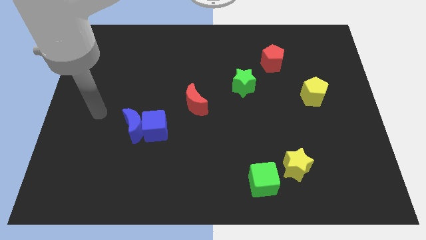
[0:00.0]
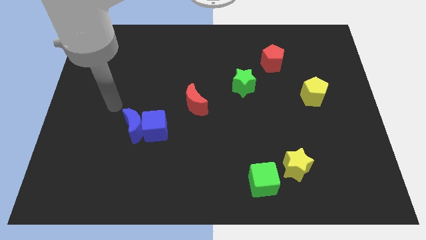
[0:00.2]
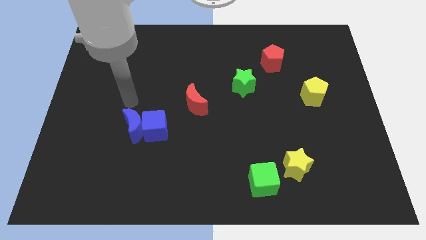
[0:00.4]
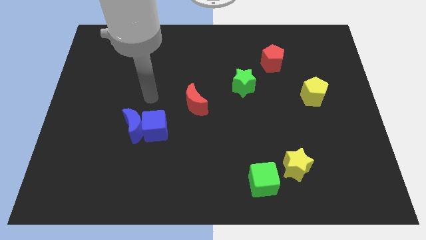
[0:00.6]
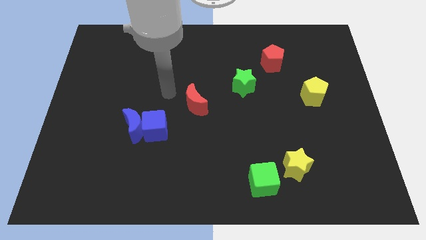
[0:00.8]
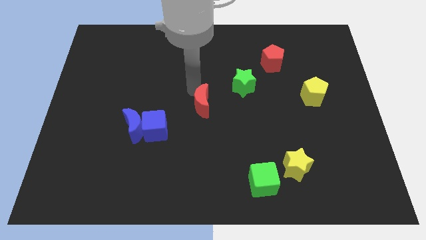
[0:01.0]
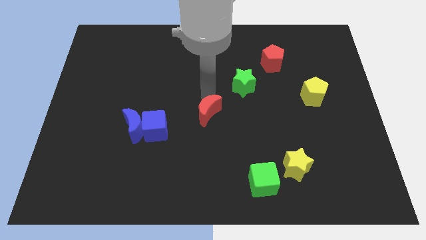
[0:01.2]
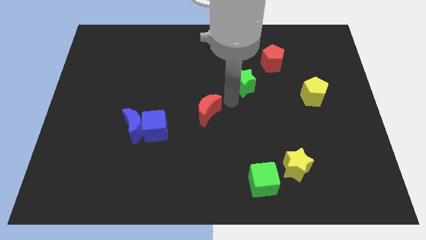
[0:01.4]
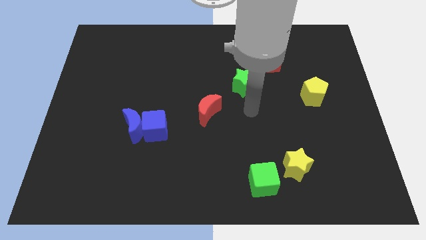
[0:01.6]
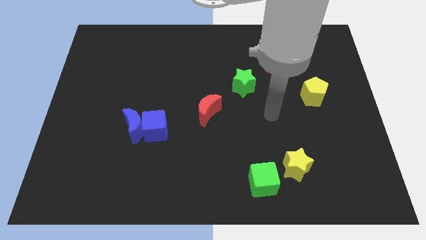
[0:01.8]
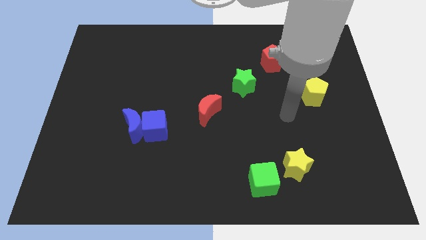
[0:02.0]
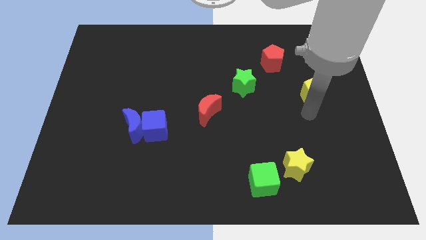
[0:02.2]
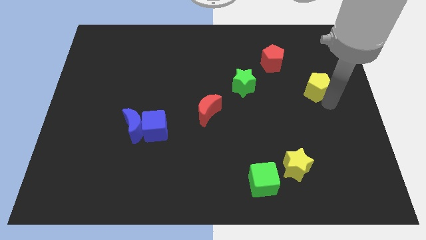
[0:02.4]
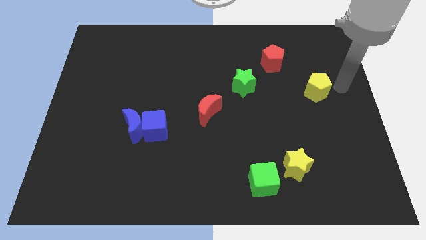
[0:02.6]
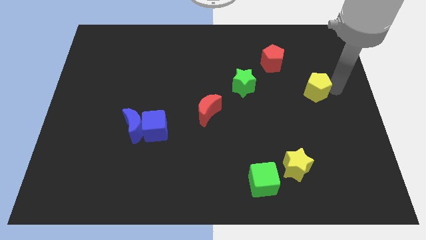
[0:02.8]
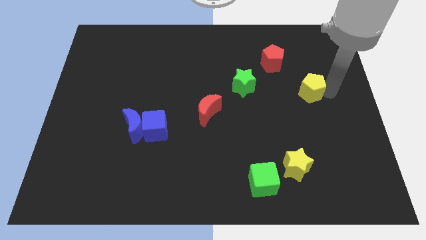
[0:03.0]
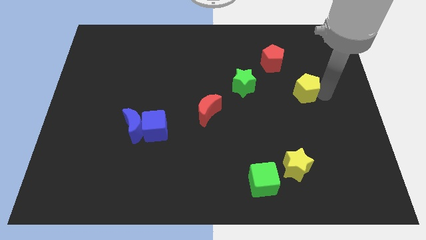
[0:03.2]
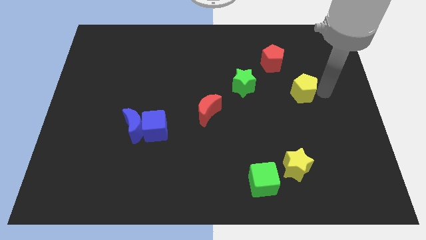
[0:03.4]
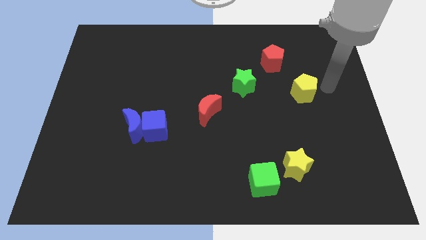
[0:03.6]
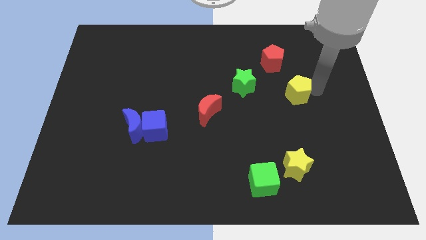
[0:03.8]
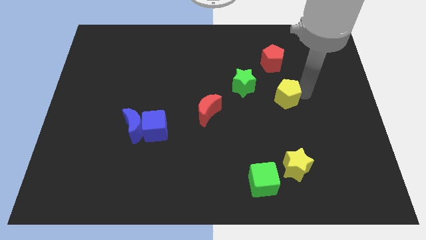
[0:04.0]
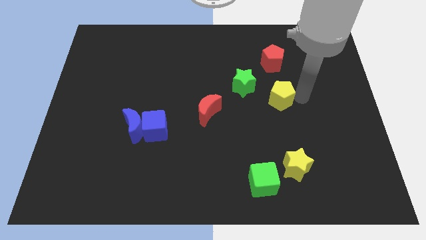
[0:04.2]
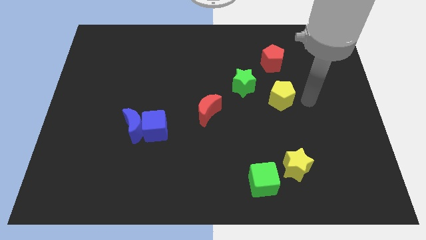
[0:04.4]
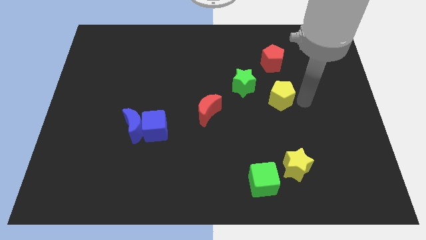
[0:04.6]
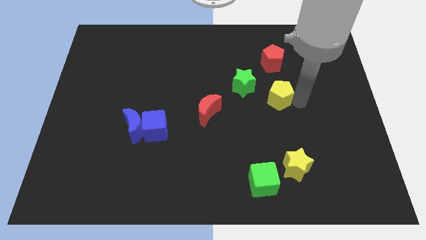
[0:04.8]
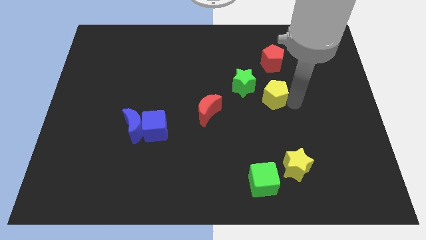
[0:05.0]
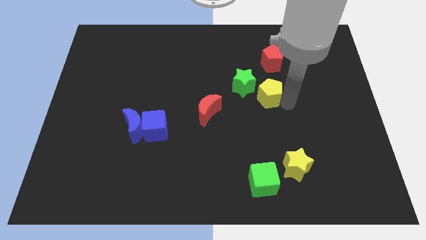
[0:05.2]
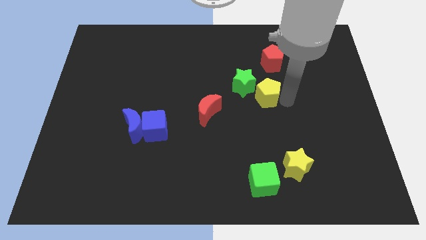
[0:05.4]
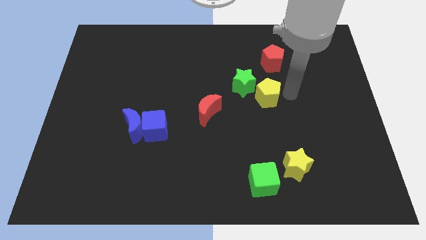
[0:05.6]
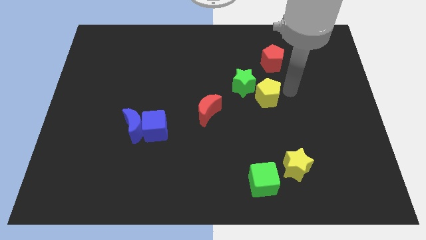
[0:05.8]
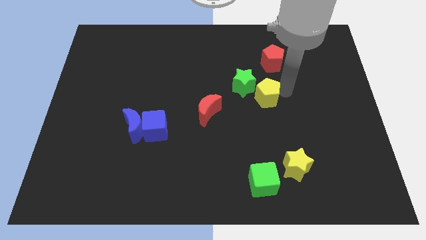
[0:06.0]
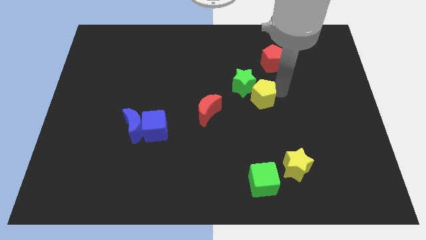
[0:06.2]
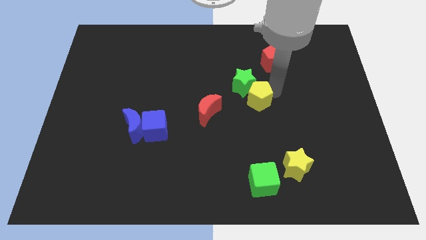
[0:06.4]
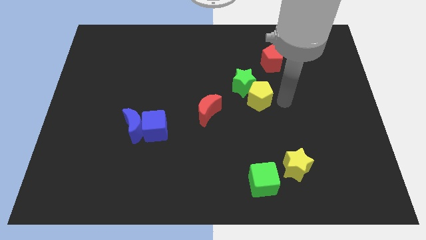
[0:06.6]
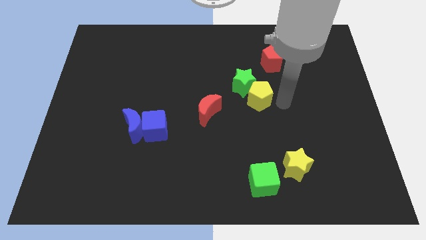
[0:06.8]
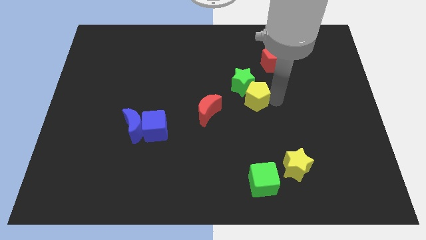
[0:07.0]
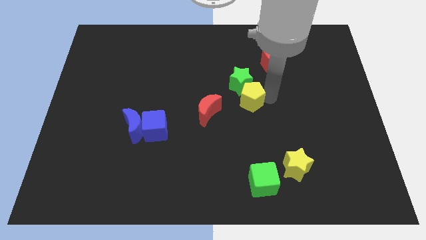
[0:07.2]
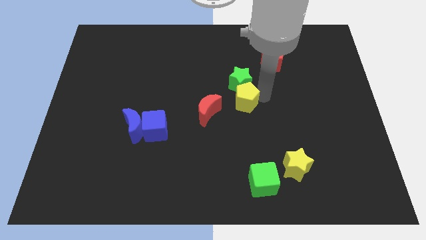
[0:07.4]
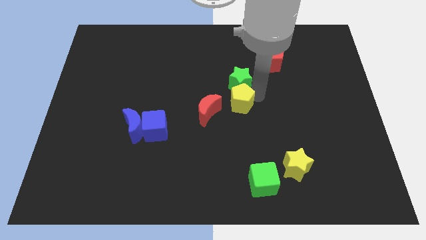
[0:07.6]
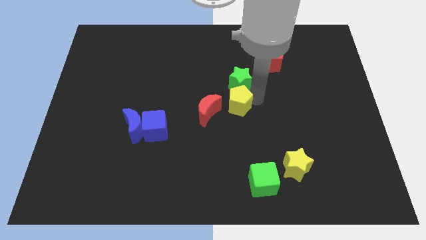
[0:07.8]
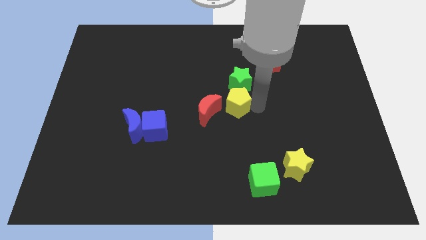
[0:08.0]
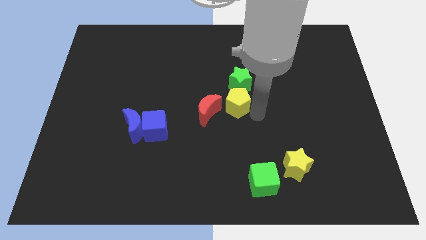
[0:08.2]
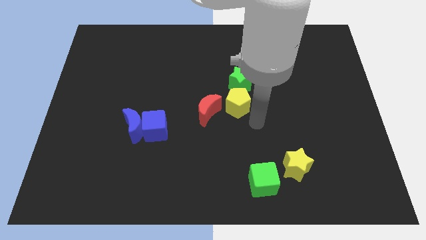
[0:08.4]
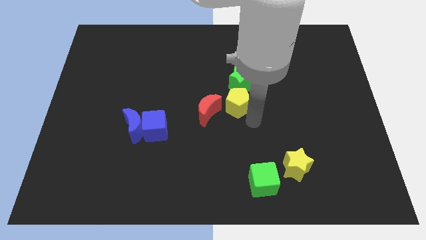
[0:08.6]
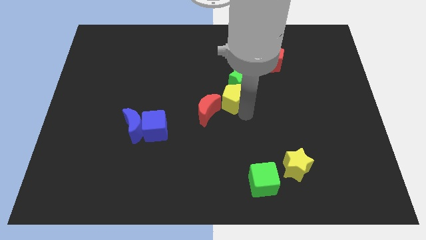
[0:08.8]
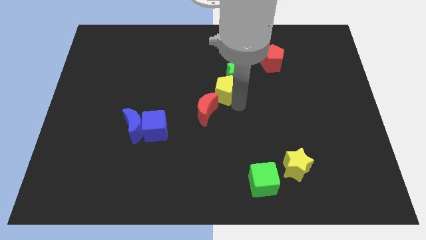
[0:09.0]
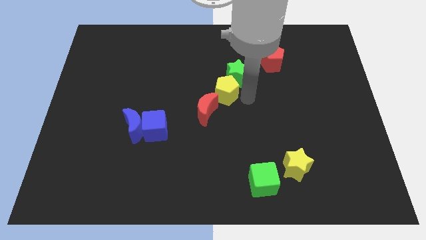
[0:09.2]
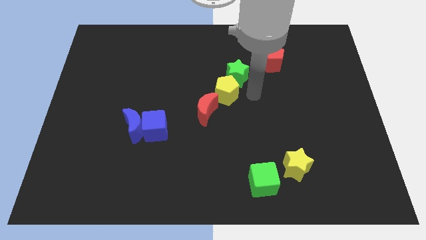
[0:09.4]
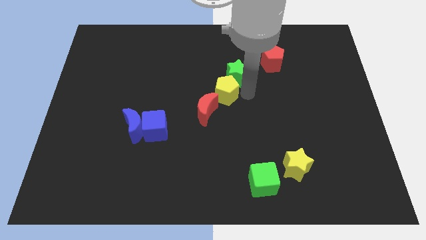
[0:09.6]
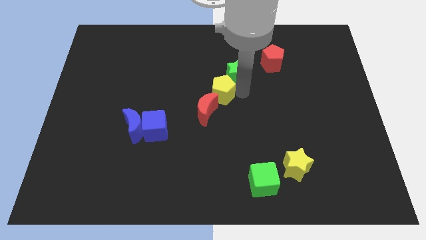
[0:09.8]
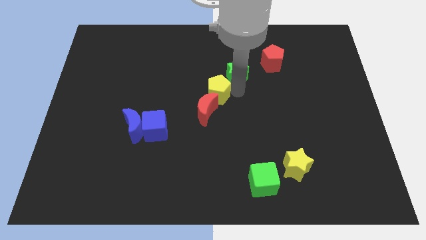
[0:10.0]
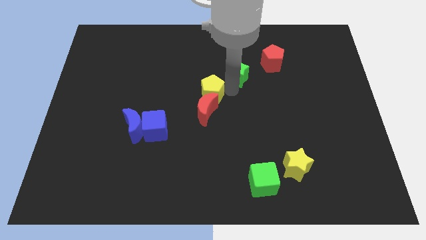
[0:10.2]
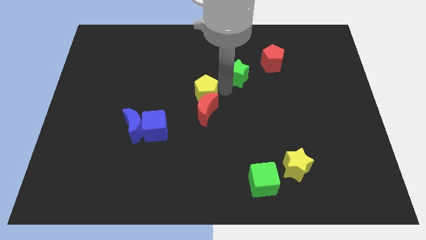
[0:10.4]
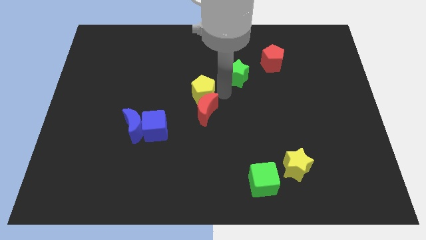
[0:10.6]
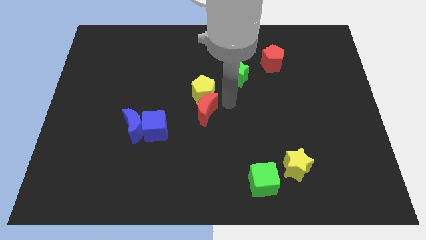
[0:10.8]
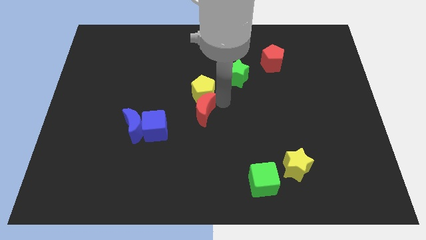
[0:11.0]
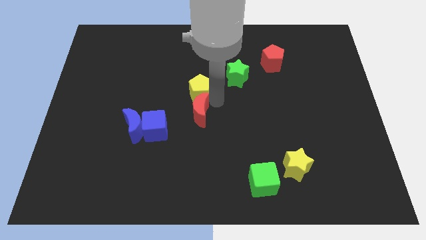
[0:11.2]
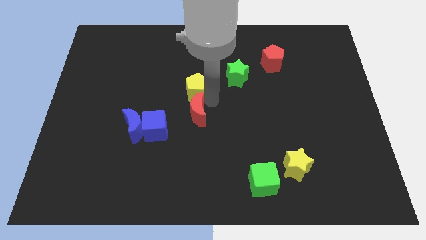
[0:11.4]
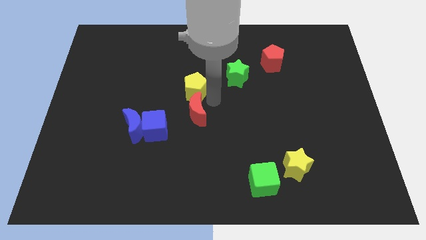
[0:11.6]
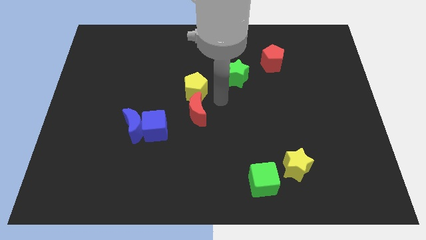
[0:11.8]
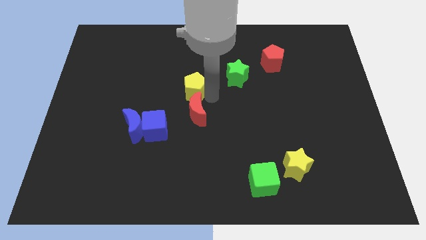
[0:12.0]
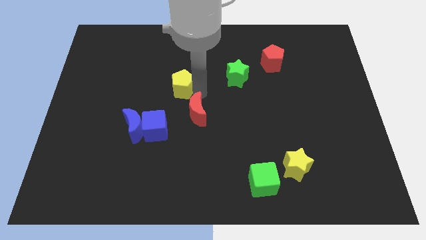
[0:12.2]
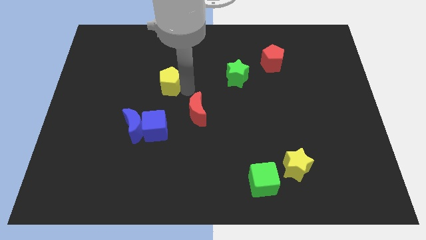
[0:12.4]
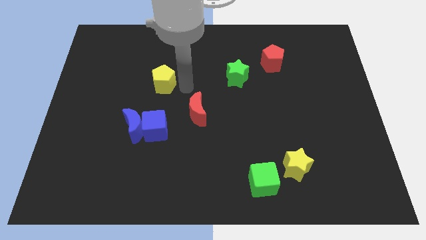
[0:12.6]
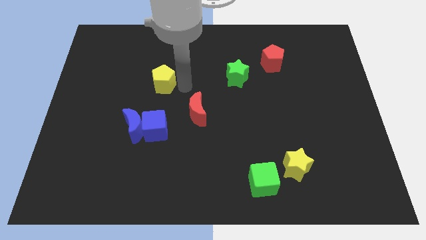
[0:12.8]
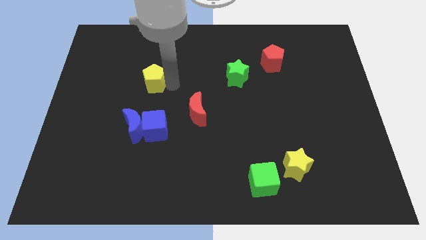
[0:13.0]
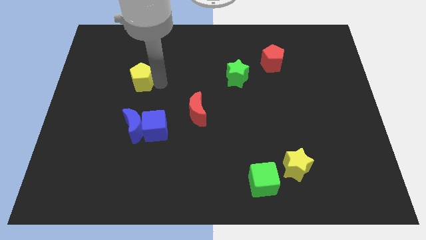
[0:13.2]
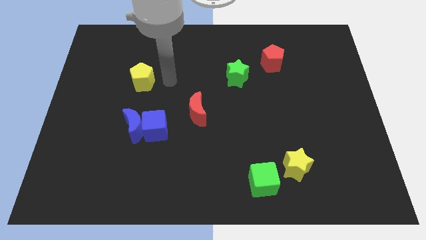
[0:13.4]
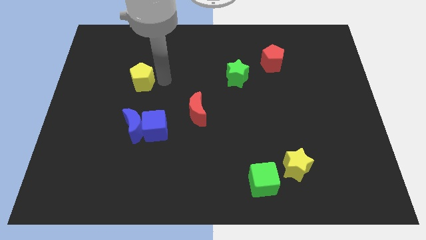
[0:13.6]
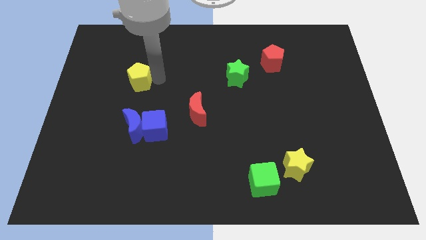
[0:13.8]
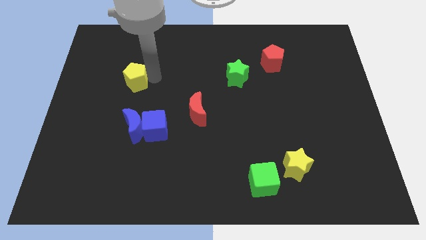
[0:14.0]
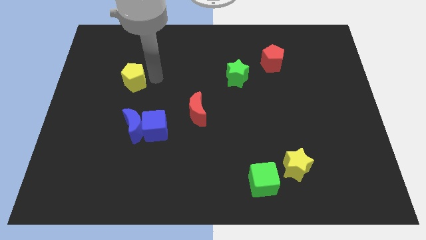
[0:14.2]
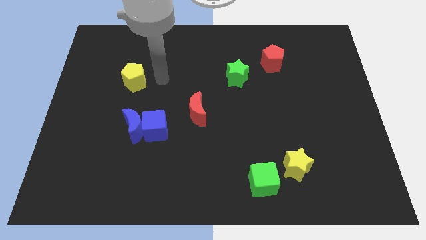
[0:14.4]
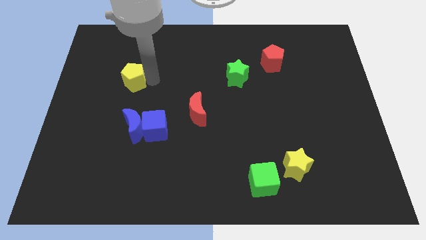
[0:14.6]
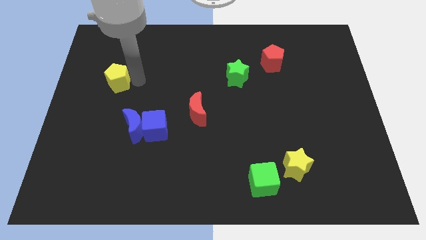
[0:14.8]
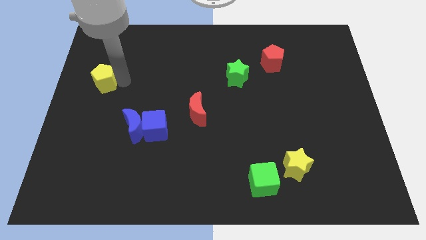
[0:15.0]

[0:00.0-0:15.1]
push the yellow pentagon to the left side
